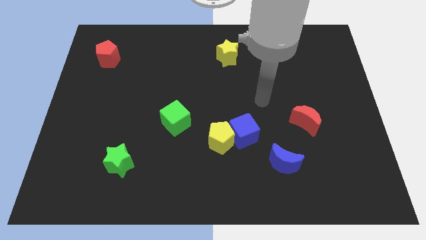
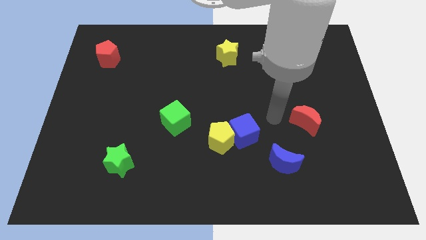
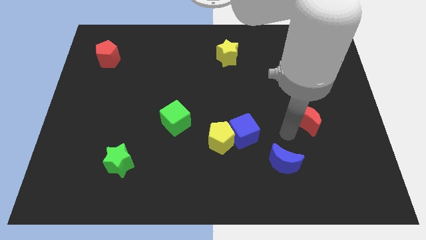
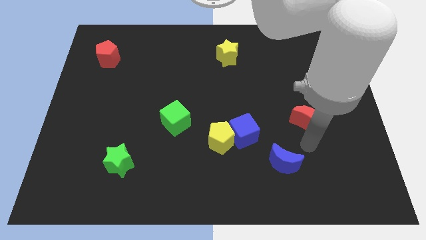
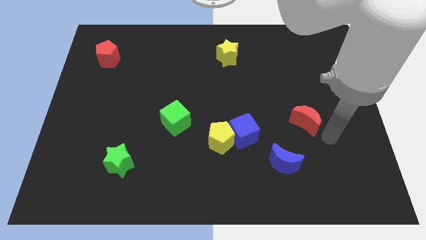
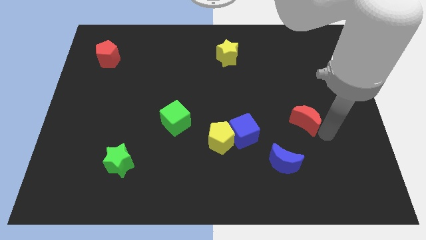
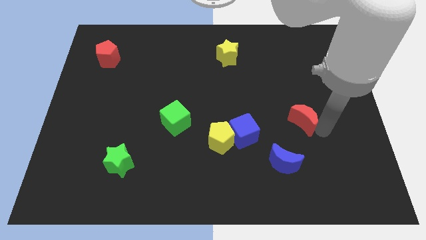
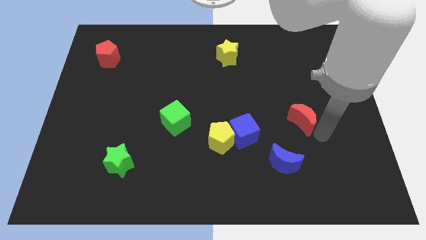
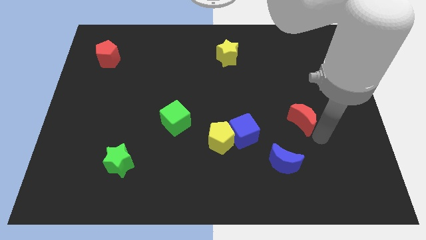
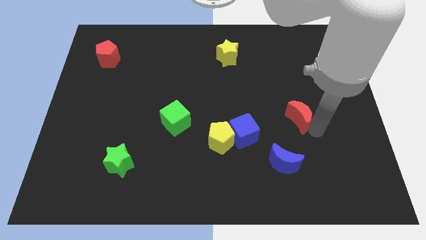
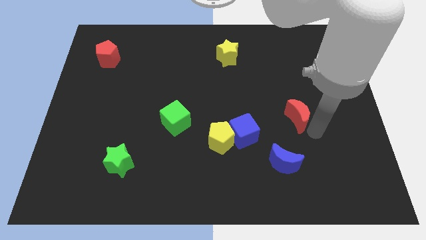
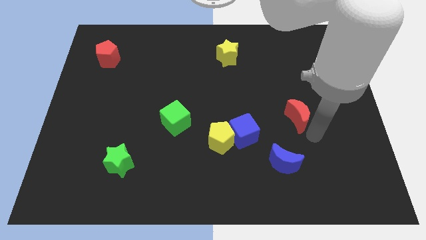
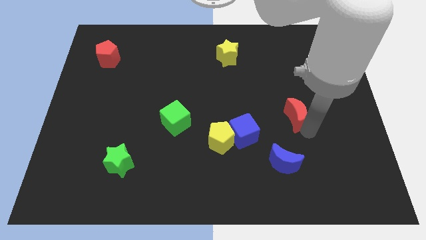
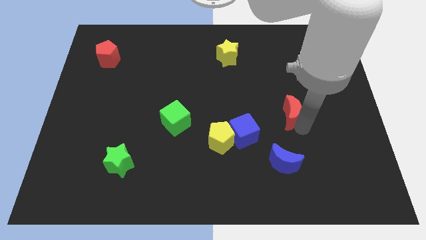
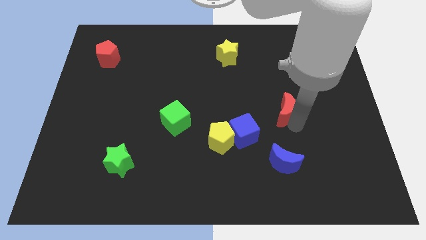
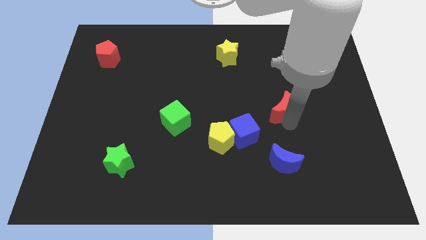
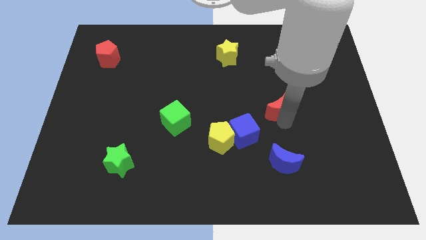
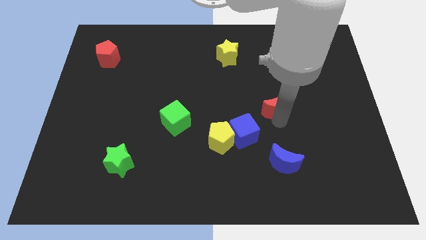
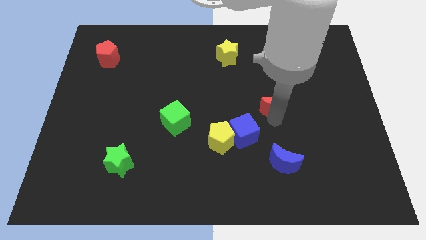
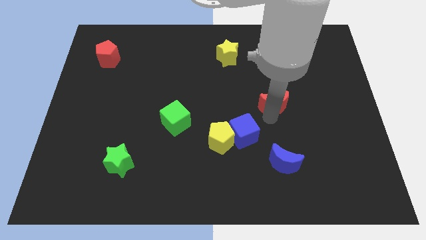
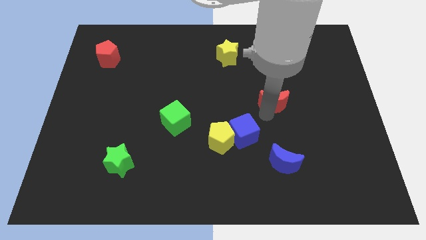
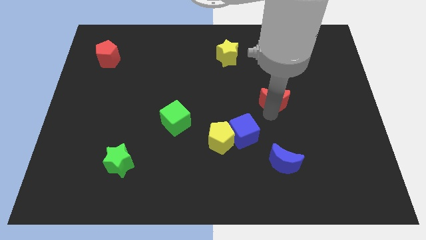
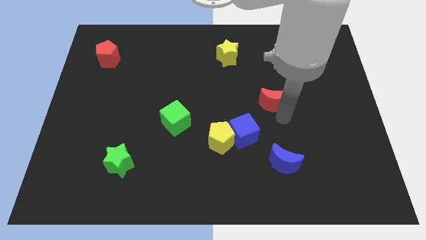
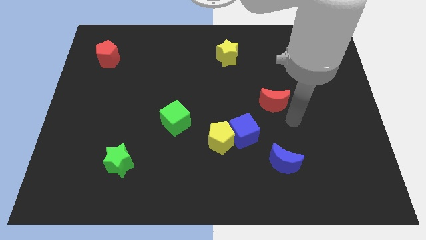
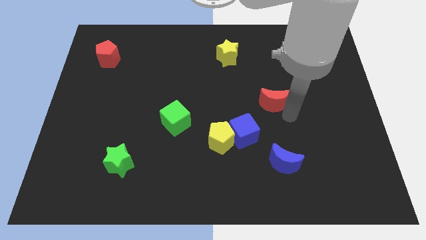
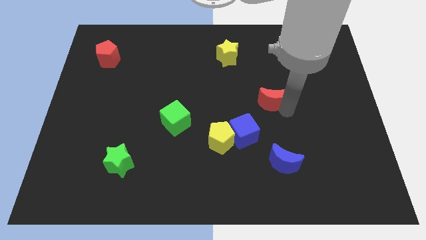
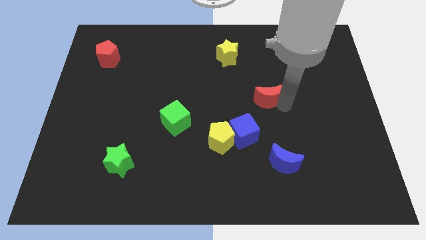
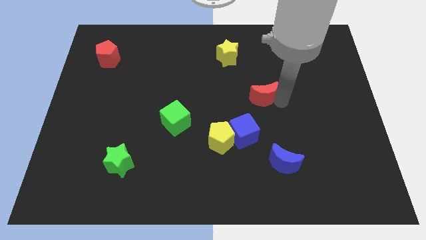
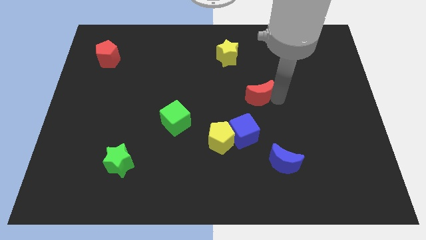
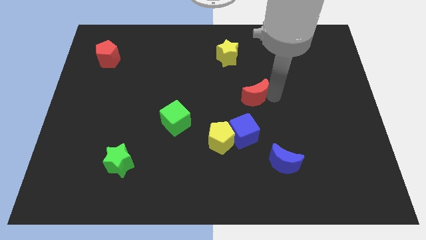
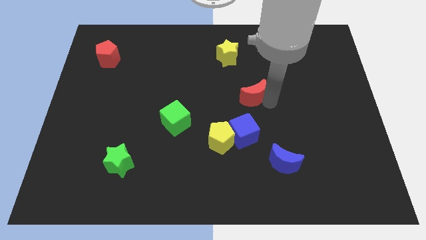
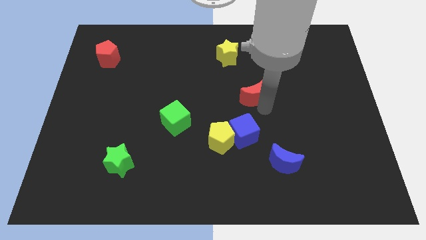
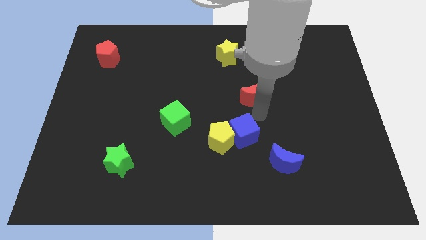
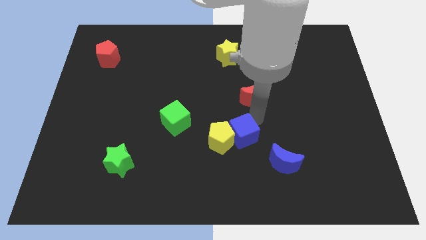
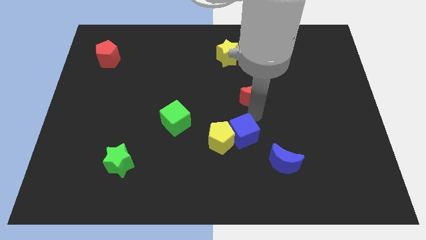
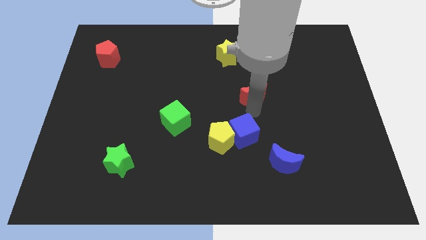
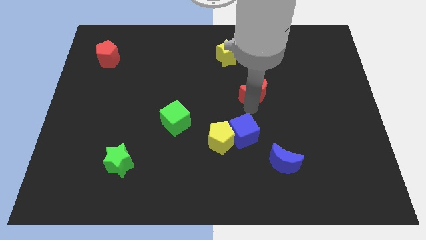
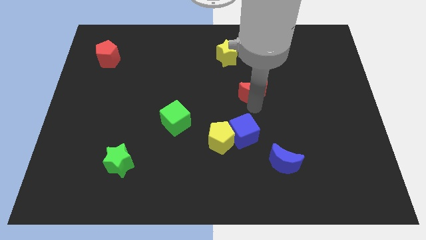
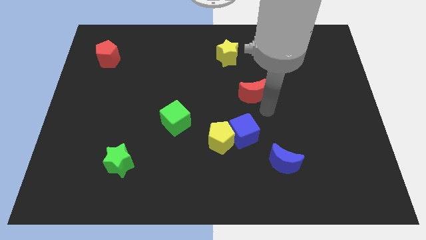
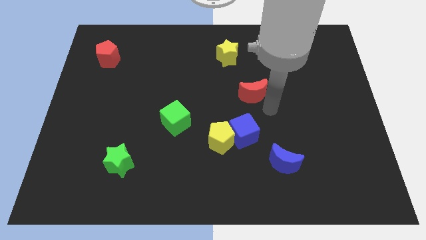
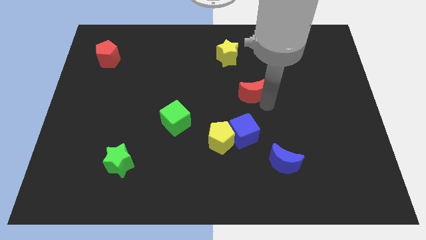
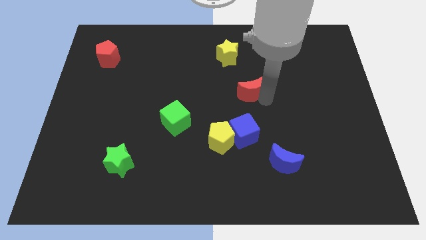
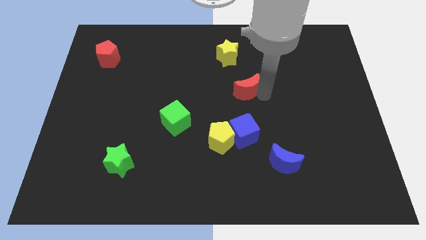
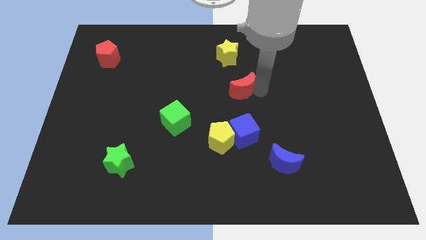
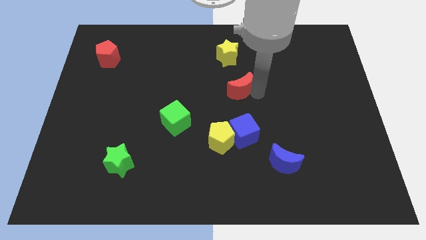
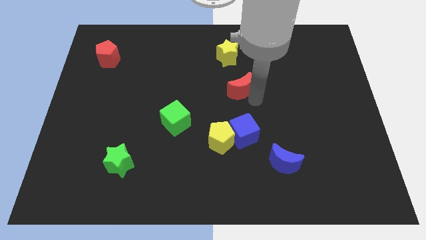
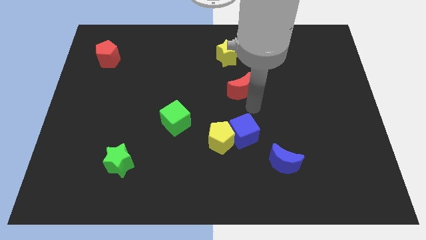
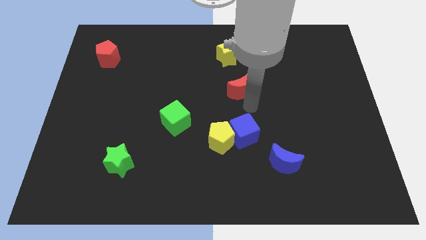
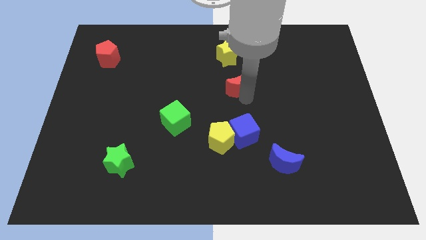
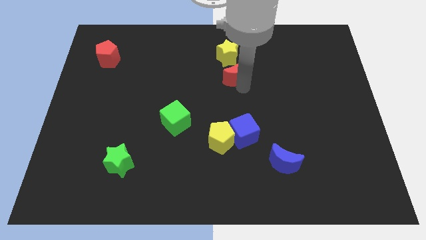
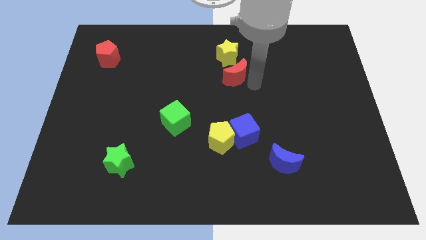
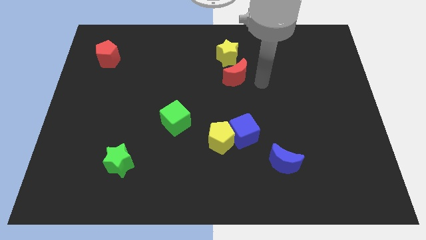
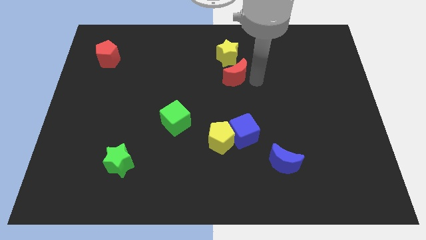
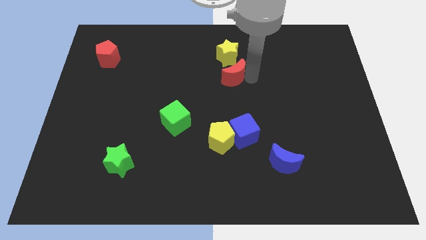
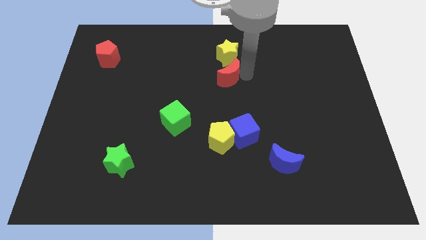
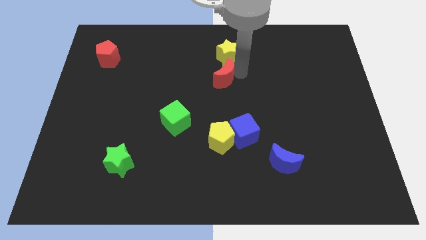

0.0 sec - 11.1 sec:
put the red moon diagonally down and to the left of the yellow star
